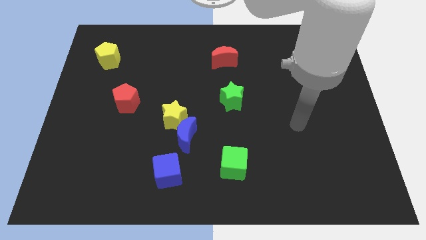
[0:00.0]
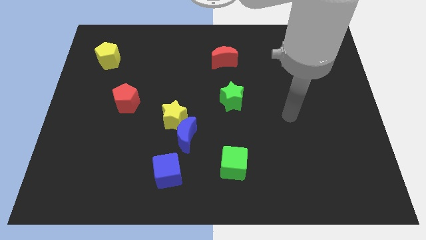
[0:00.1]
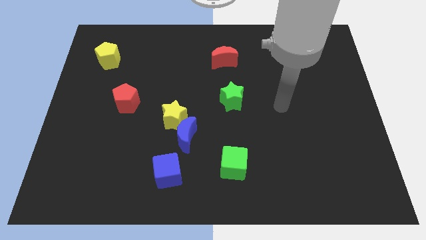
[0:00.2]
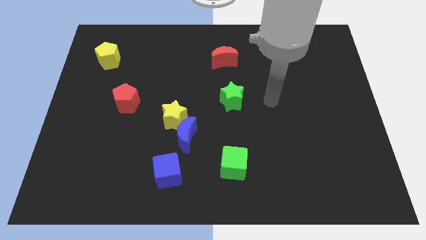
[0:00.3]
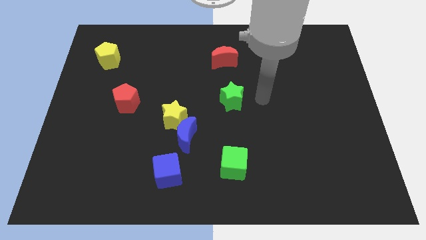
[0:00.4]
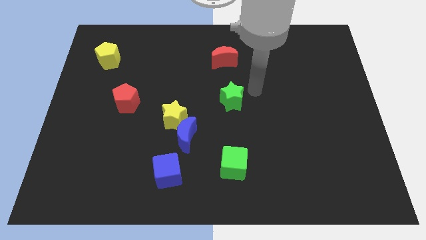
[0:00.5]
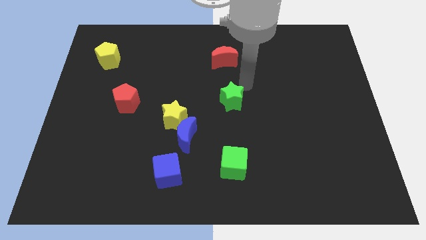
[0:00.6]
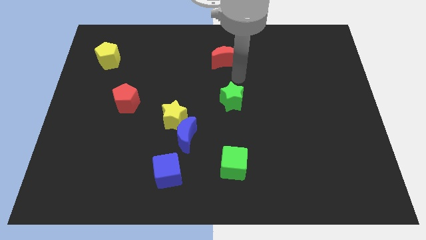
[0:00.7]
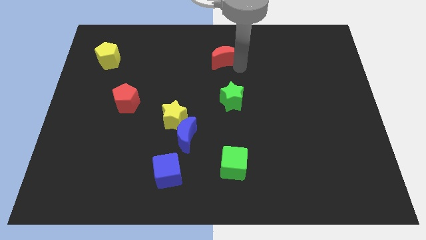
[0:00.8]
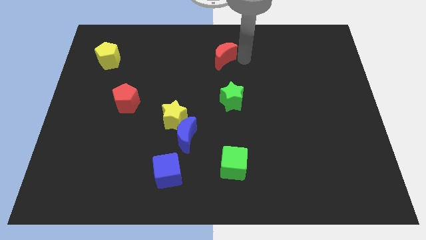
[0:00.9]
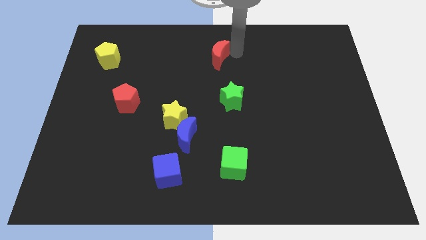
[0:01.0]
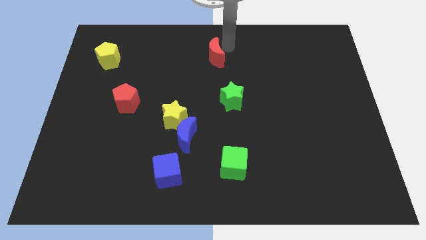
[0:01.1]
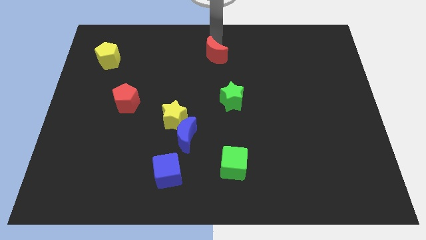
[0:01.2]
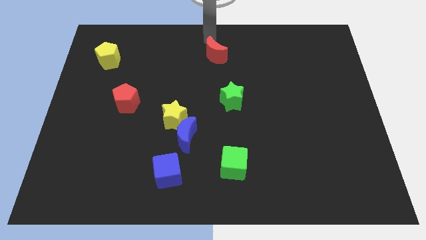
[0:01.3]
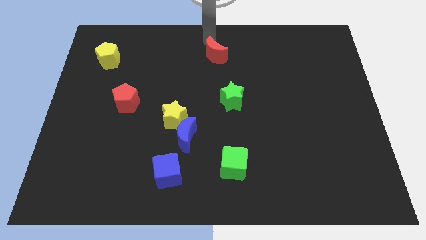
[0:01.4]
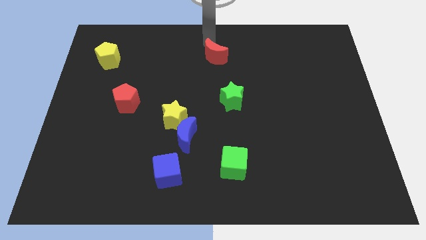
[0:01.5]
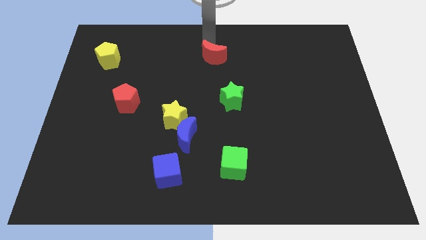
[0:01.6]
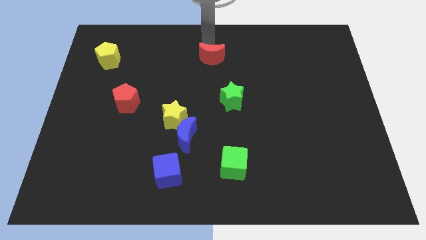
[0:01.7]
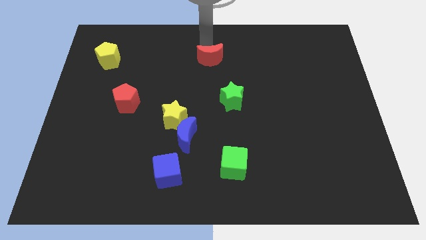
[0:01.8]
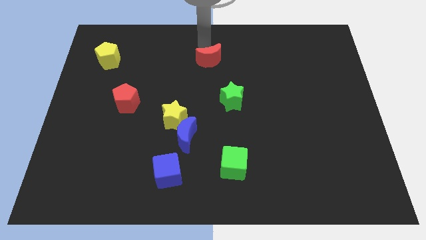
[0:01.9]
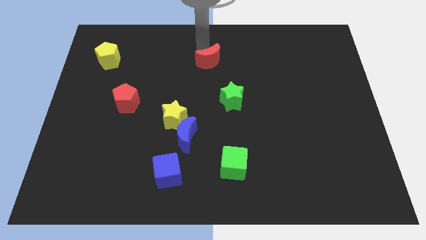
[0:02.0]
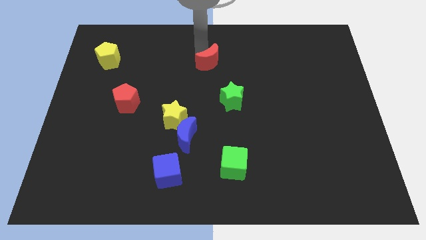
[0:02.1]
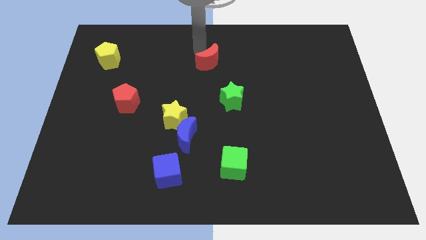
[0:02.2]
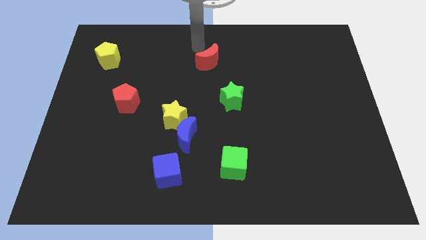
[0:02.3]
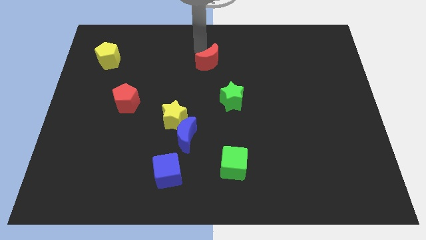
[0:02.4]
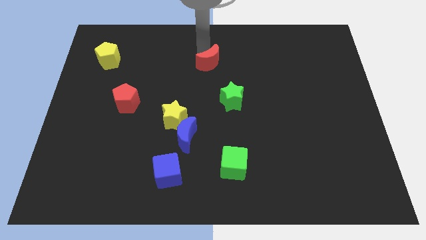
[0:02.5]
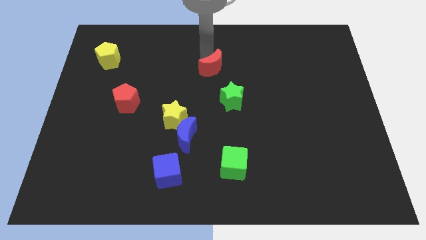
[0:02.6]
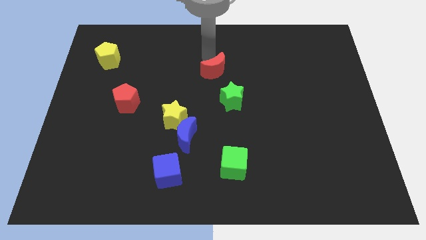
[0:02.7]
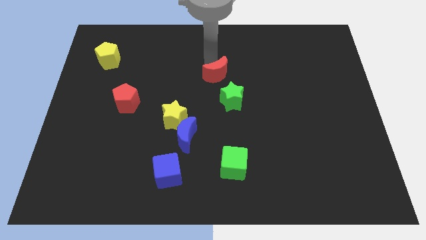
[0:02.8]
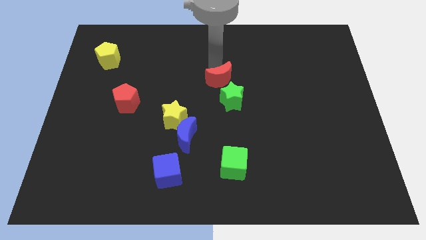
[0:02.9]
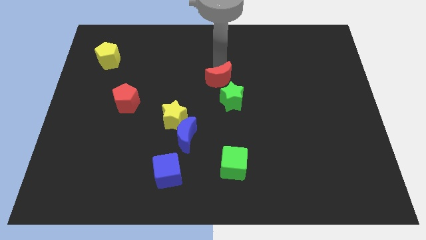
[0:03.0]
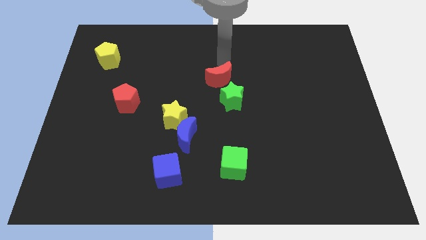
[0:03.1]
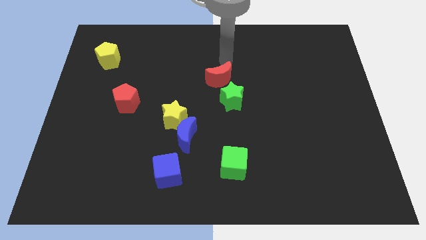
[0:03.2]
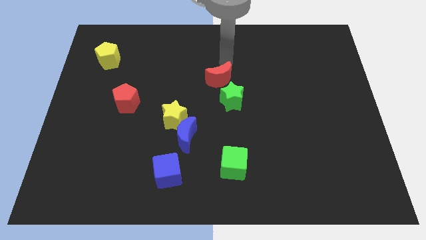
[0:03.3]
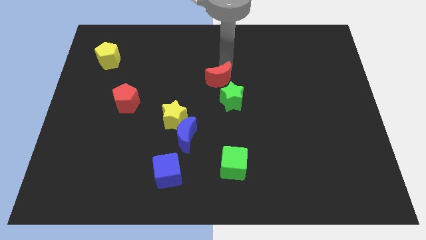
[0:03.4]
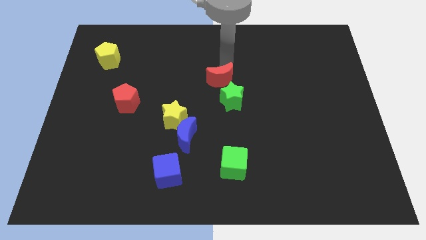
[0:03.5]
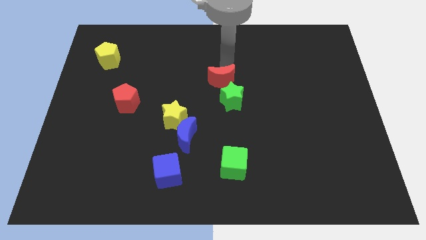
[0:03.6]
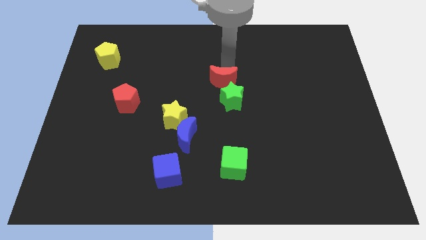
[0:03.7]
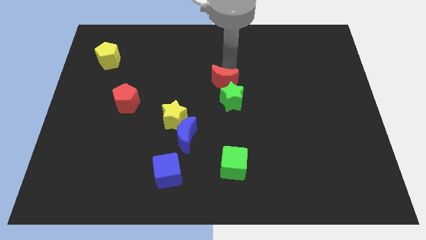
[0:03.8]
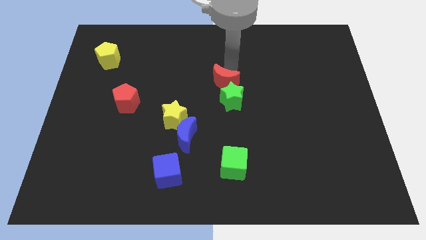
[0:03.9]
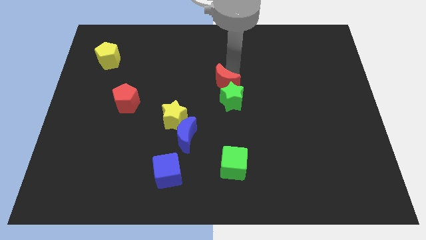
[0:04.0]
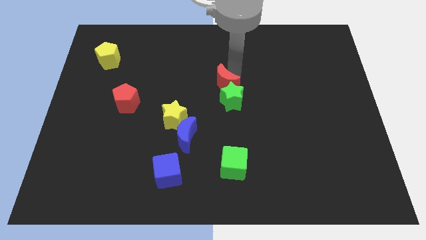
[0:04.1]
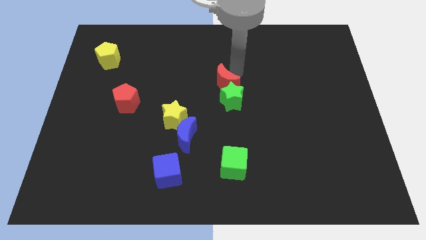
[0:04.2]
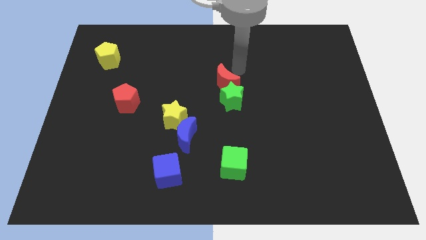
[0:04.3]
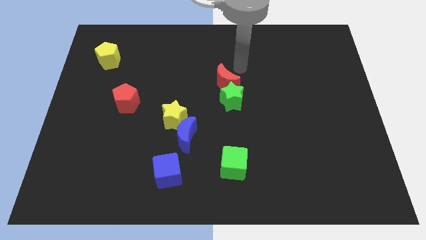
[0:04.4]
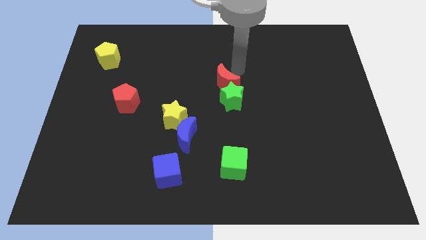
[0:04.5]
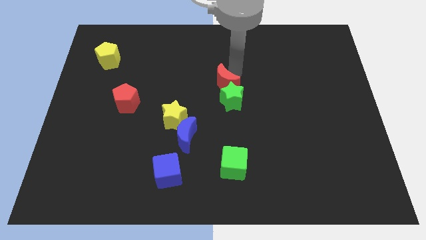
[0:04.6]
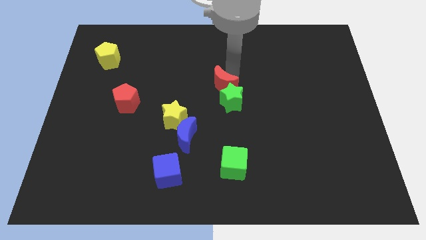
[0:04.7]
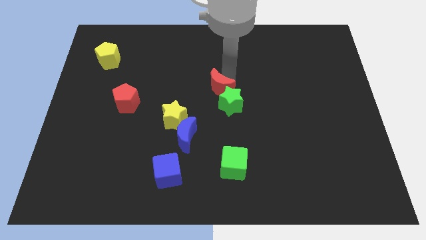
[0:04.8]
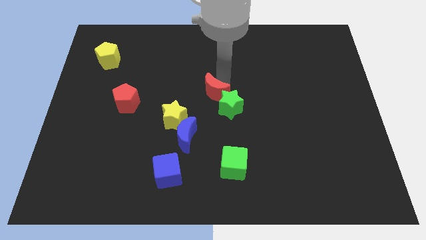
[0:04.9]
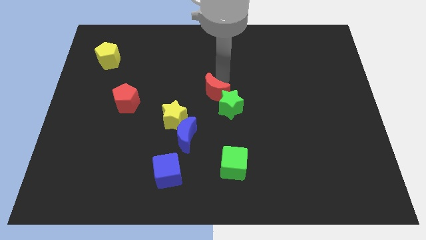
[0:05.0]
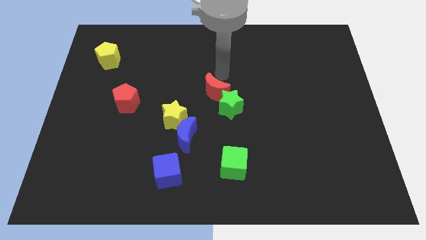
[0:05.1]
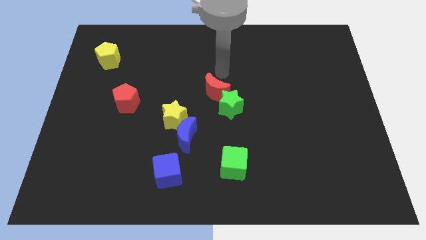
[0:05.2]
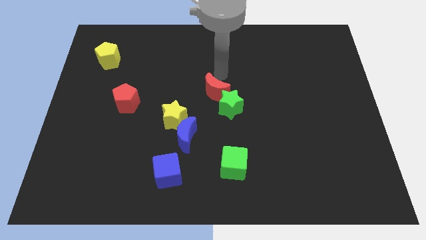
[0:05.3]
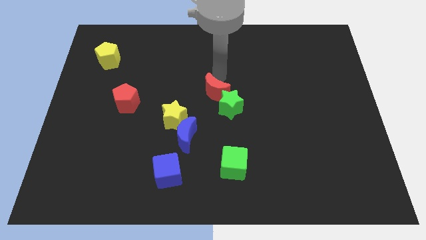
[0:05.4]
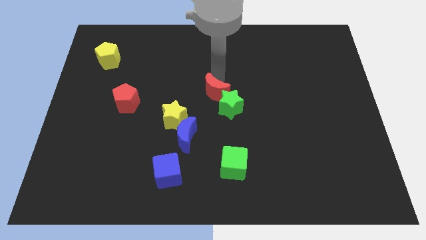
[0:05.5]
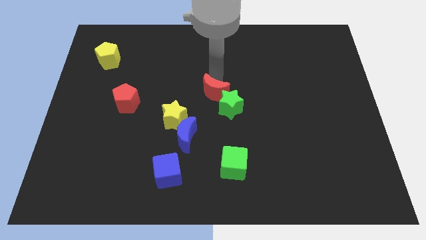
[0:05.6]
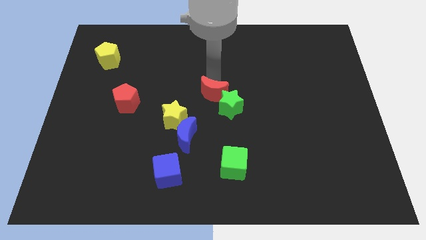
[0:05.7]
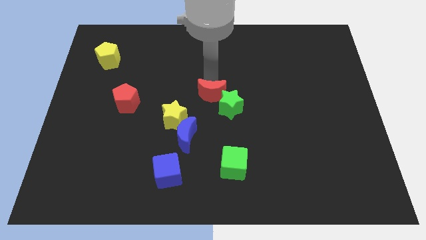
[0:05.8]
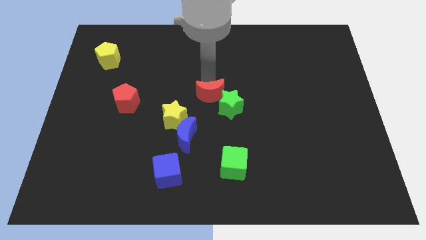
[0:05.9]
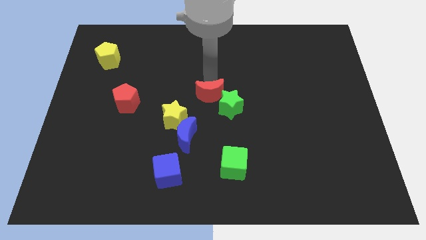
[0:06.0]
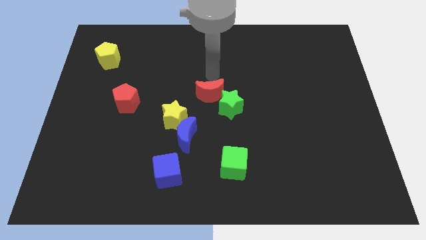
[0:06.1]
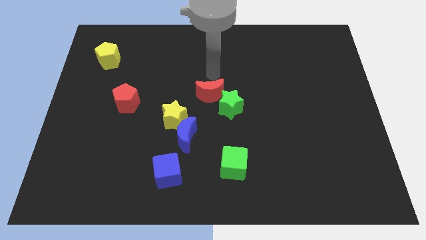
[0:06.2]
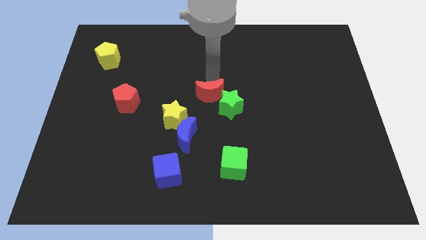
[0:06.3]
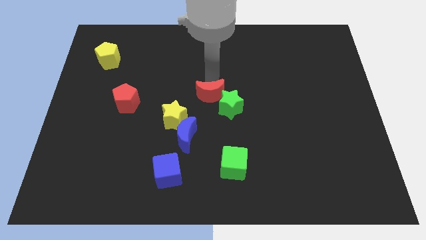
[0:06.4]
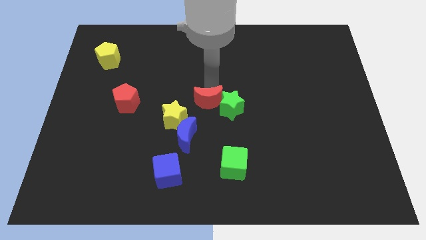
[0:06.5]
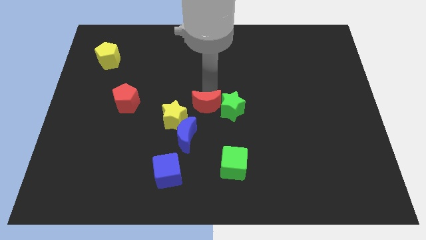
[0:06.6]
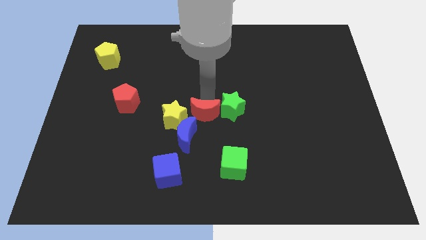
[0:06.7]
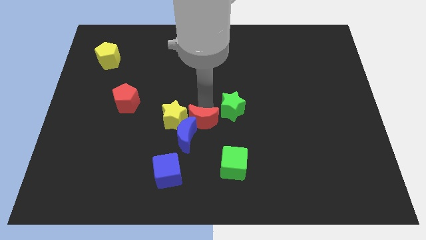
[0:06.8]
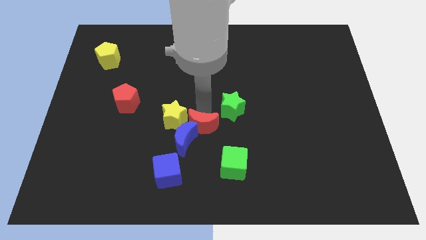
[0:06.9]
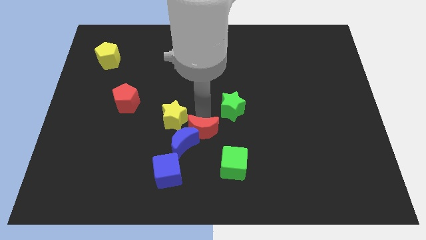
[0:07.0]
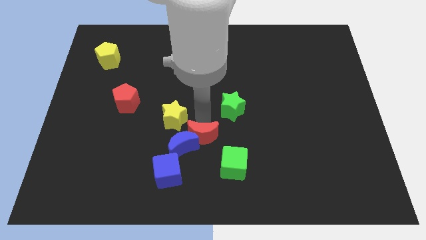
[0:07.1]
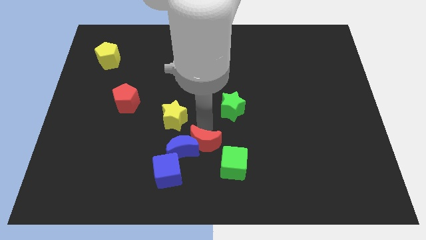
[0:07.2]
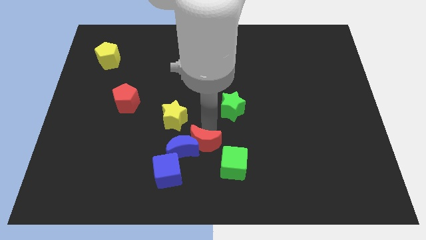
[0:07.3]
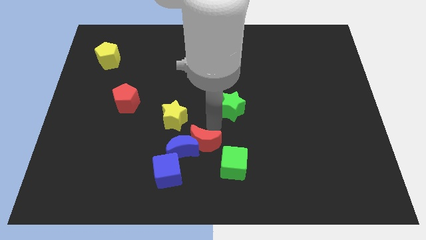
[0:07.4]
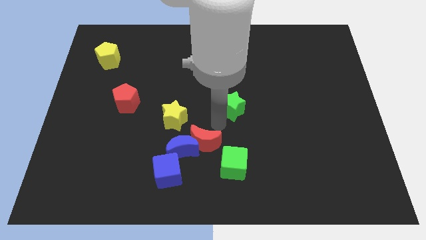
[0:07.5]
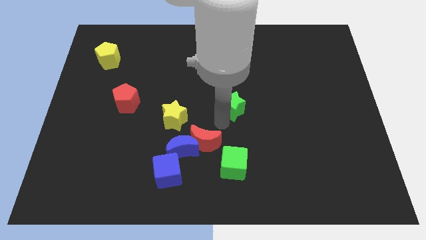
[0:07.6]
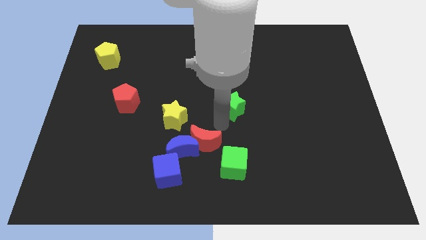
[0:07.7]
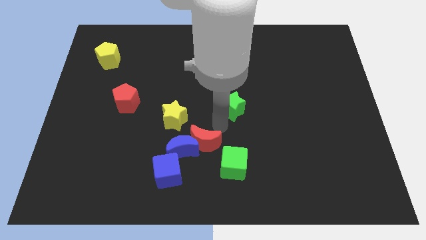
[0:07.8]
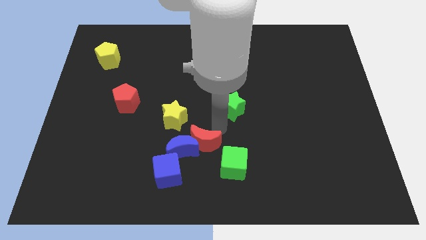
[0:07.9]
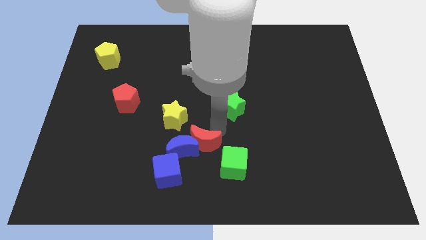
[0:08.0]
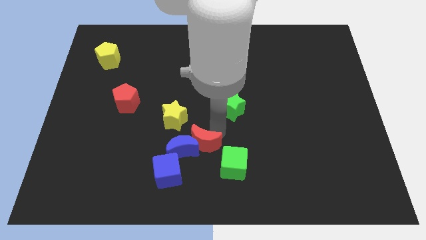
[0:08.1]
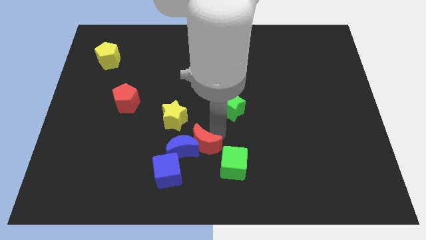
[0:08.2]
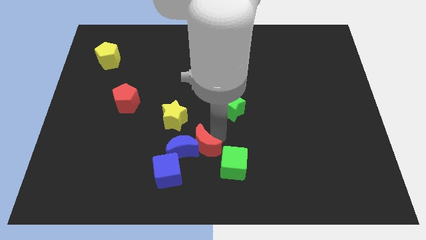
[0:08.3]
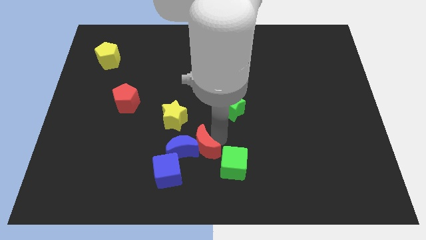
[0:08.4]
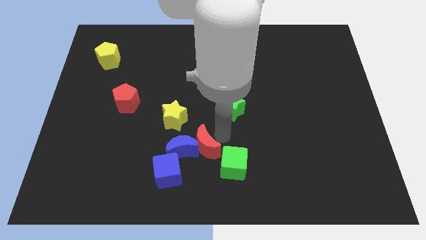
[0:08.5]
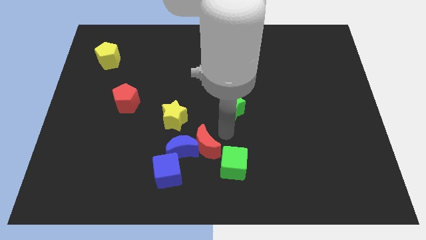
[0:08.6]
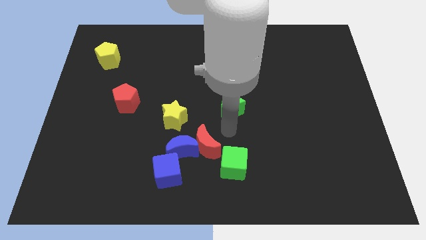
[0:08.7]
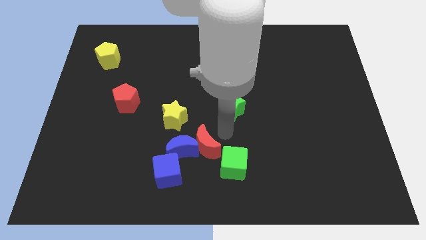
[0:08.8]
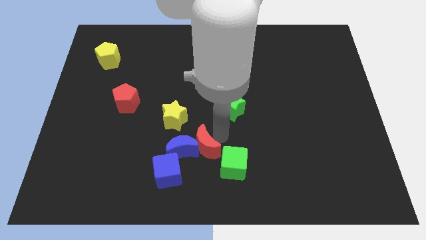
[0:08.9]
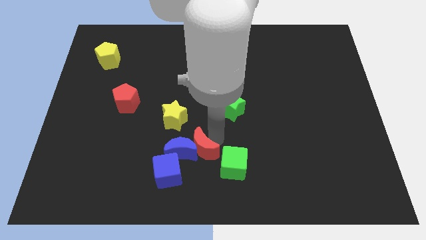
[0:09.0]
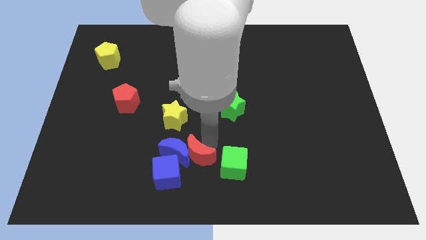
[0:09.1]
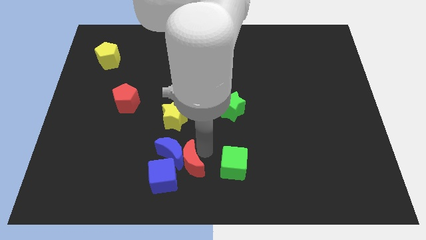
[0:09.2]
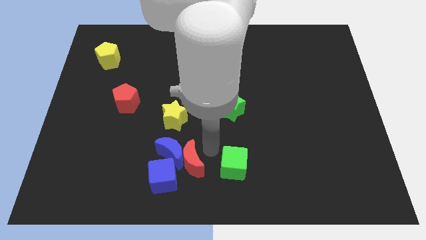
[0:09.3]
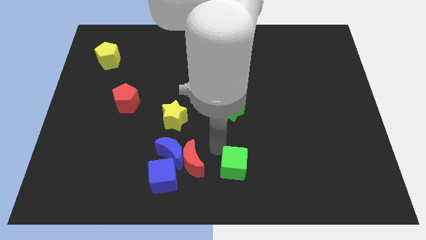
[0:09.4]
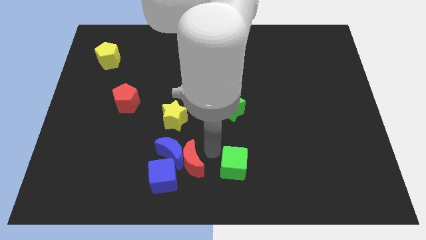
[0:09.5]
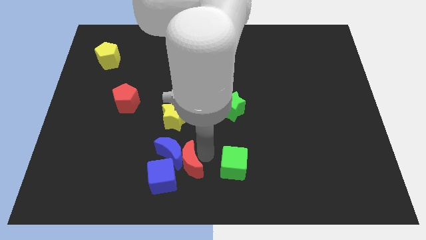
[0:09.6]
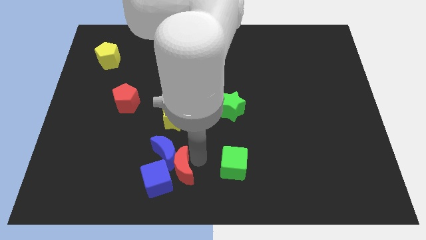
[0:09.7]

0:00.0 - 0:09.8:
move the red moon next to the blue cube
